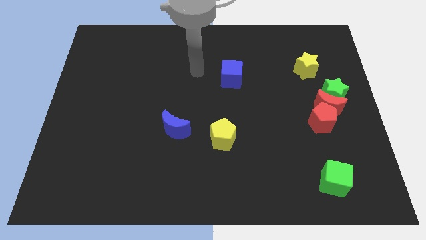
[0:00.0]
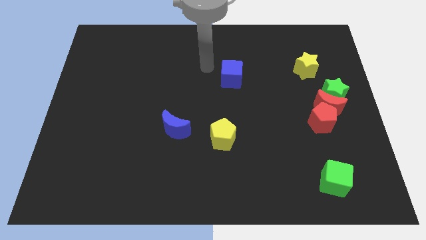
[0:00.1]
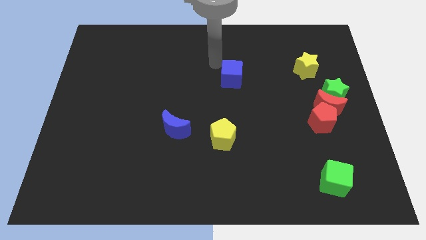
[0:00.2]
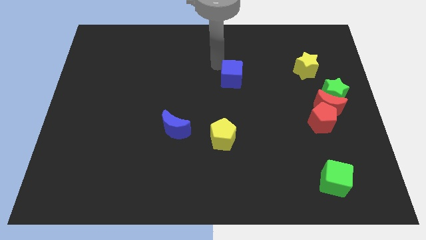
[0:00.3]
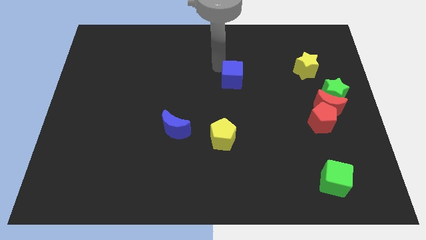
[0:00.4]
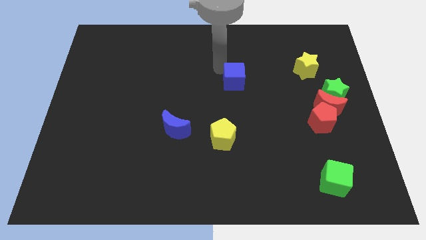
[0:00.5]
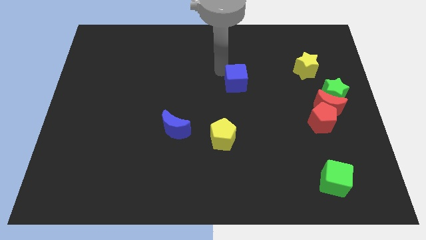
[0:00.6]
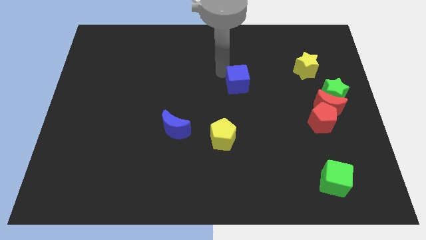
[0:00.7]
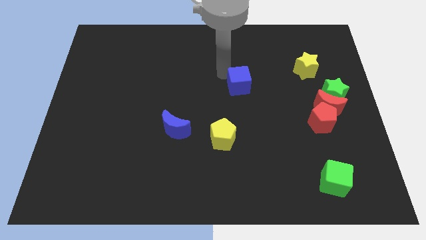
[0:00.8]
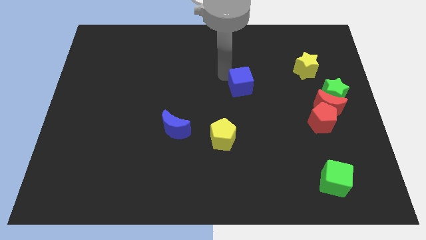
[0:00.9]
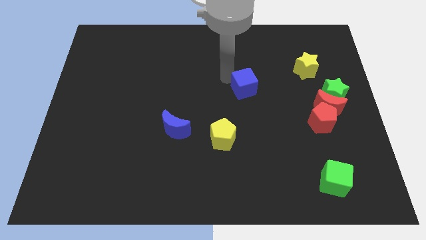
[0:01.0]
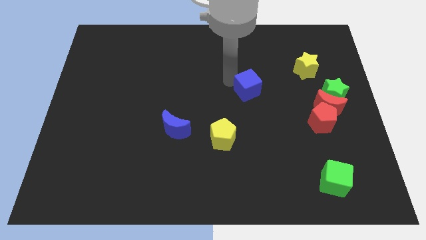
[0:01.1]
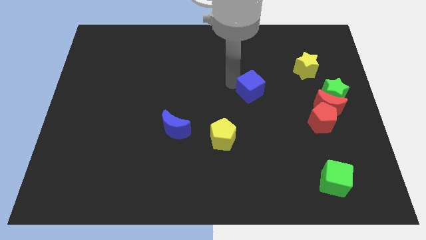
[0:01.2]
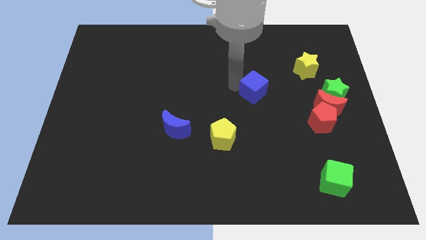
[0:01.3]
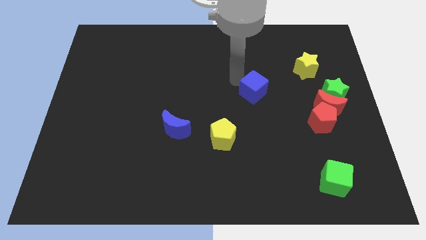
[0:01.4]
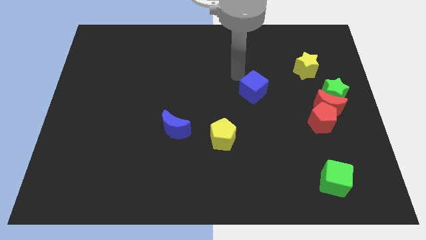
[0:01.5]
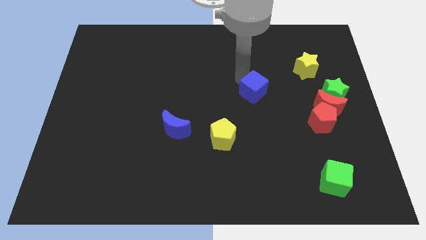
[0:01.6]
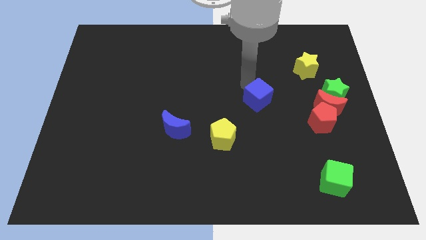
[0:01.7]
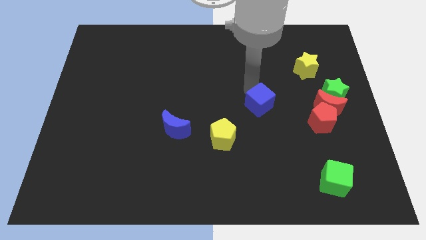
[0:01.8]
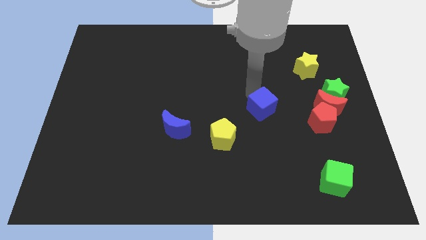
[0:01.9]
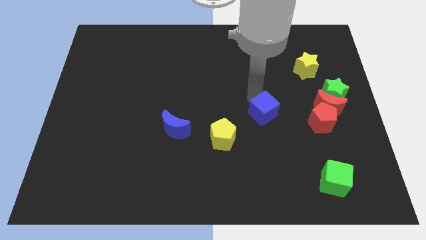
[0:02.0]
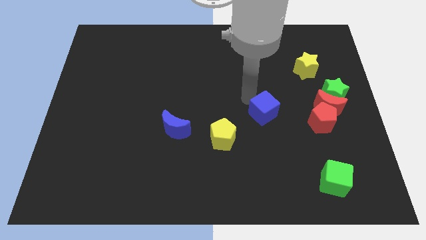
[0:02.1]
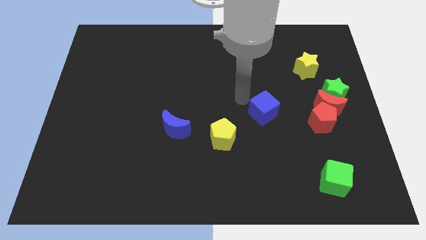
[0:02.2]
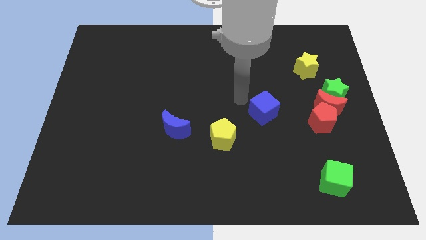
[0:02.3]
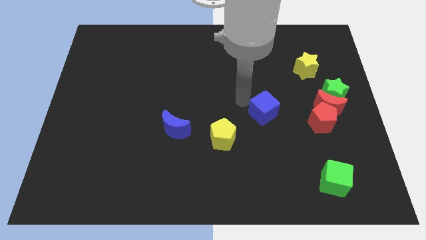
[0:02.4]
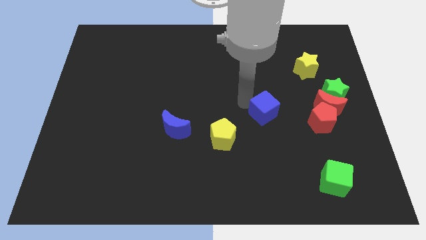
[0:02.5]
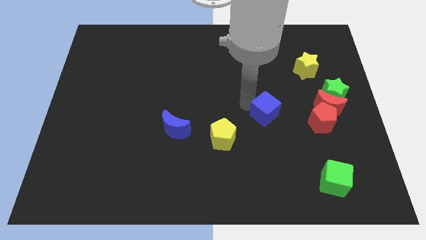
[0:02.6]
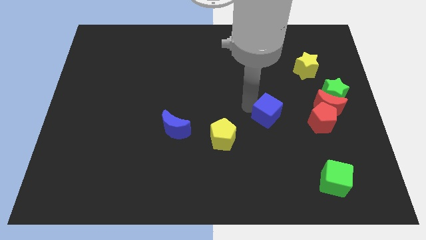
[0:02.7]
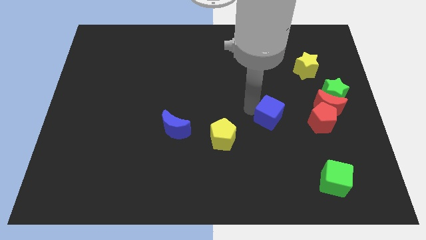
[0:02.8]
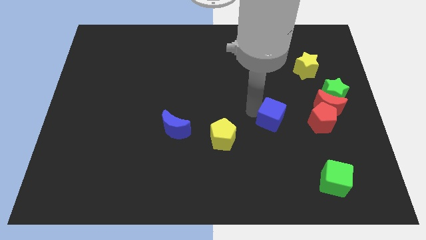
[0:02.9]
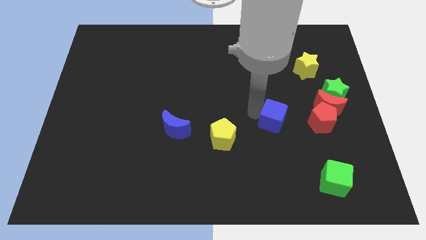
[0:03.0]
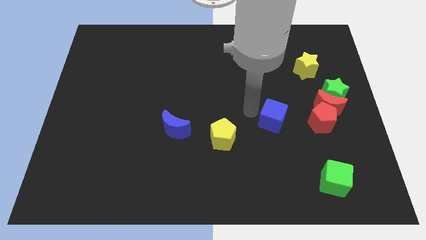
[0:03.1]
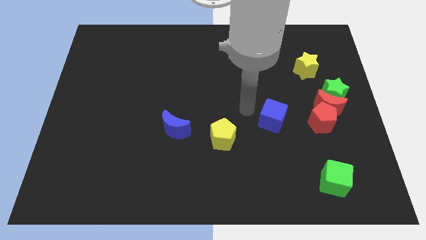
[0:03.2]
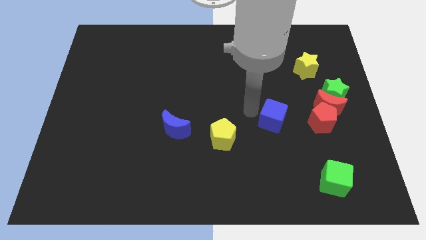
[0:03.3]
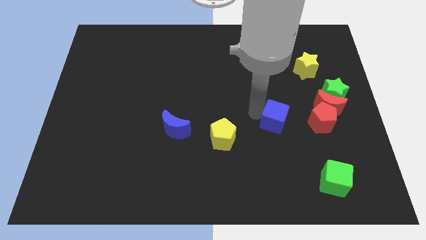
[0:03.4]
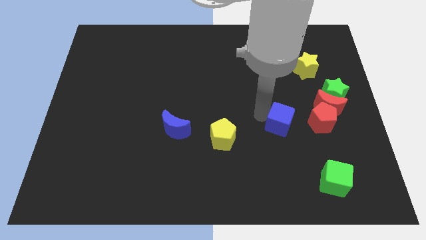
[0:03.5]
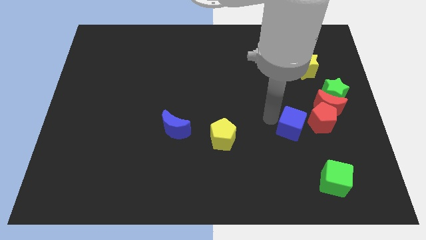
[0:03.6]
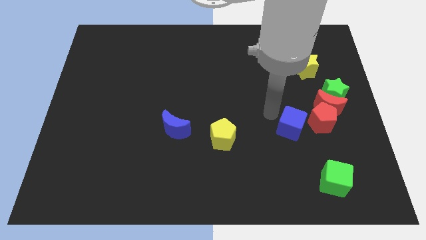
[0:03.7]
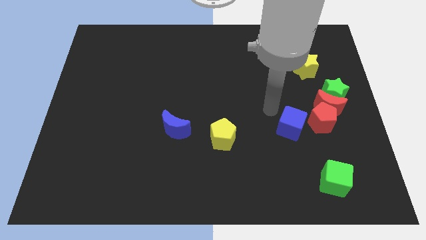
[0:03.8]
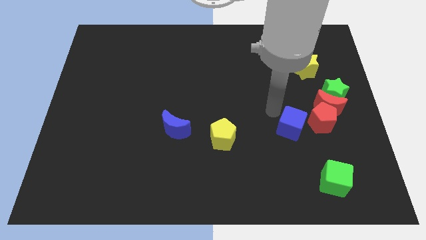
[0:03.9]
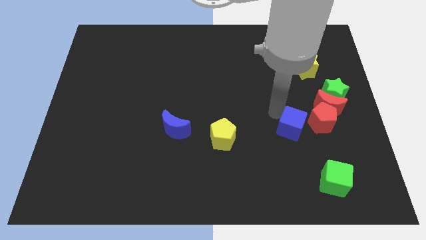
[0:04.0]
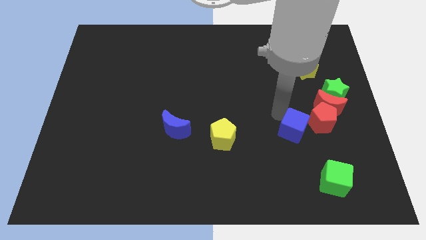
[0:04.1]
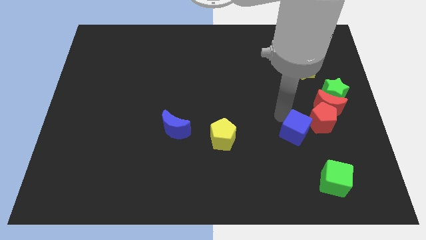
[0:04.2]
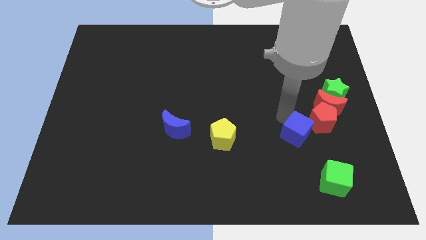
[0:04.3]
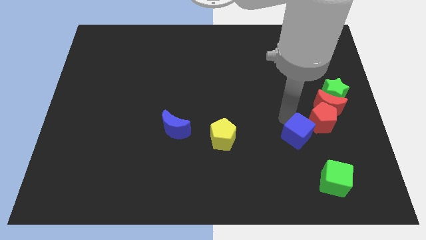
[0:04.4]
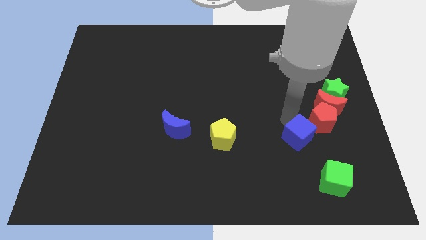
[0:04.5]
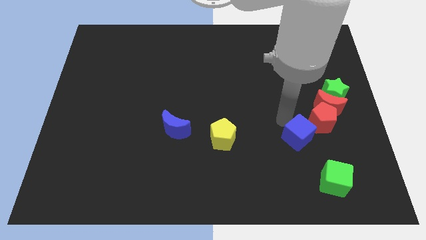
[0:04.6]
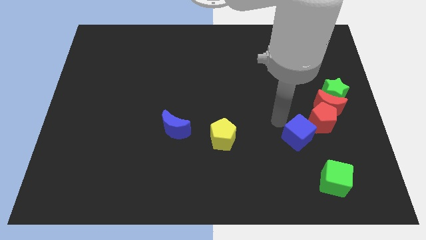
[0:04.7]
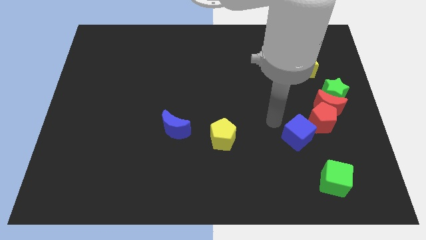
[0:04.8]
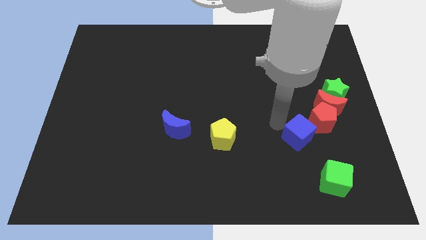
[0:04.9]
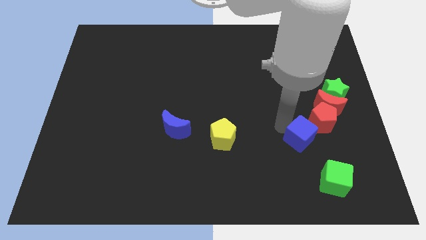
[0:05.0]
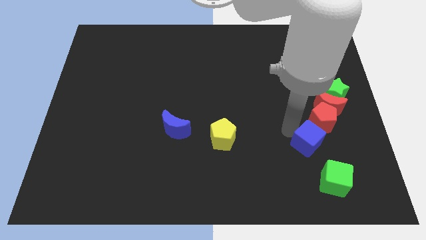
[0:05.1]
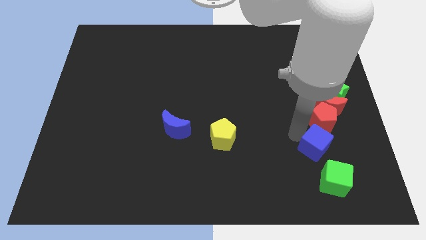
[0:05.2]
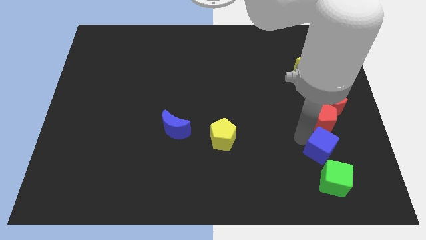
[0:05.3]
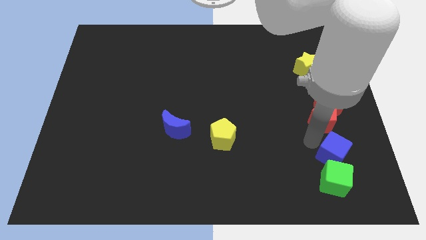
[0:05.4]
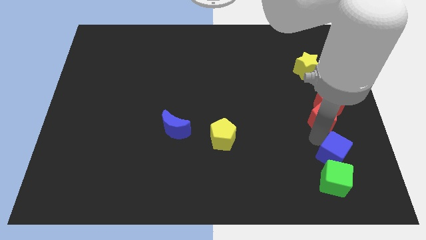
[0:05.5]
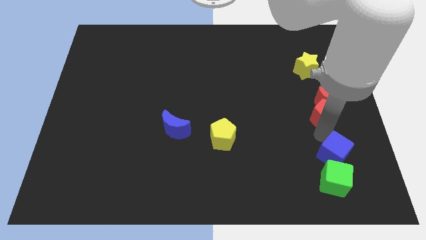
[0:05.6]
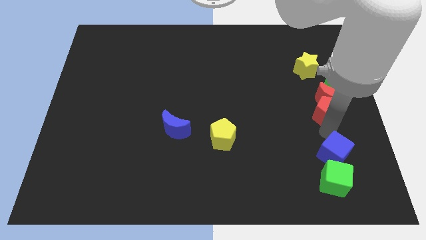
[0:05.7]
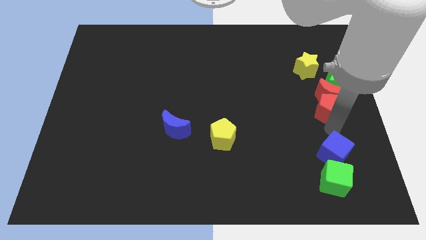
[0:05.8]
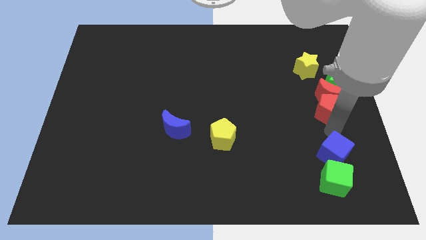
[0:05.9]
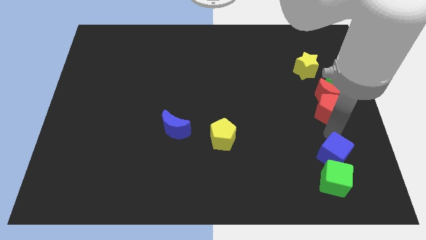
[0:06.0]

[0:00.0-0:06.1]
push the blue cube next to the green cube

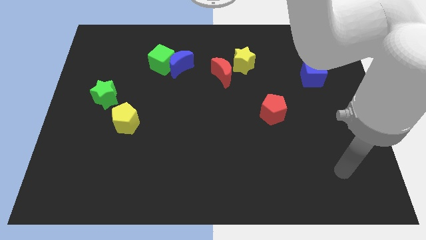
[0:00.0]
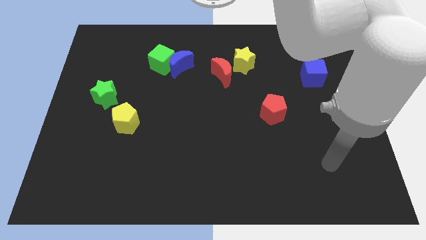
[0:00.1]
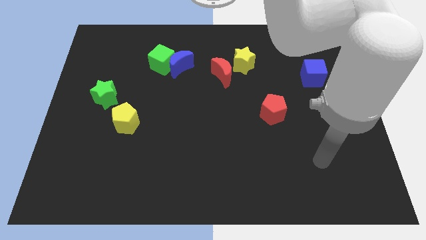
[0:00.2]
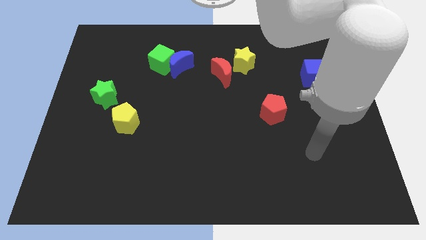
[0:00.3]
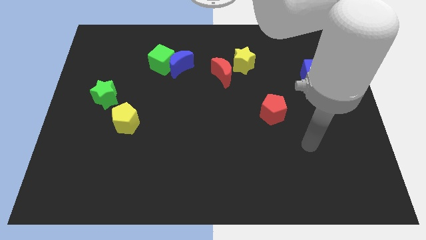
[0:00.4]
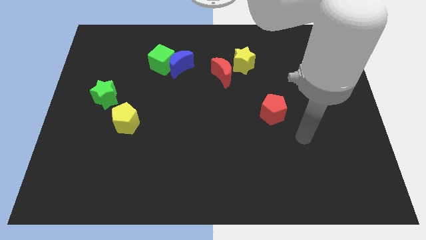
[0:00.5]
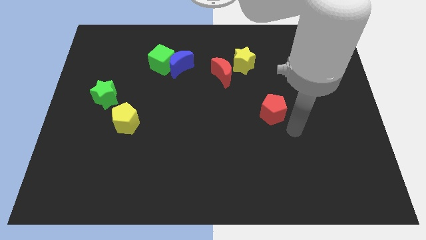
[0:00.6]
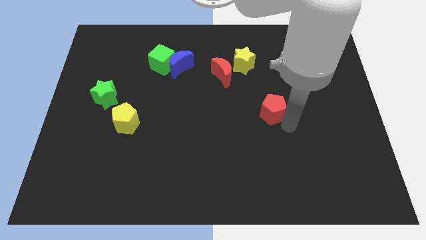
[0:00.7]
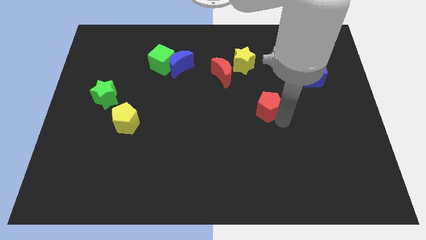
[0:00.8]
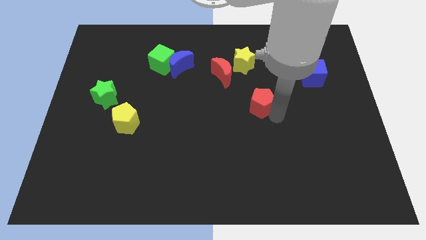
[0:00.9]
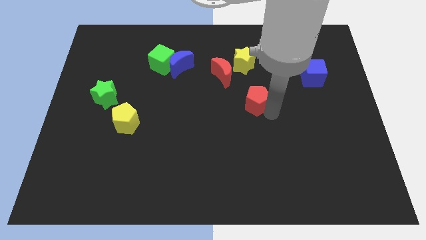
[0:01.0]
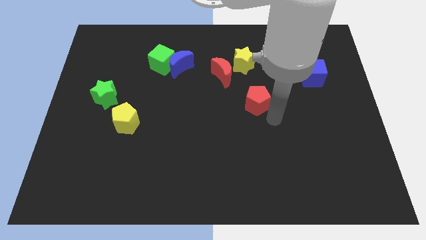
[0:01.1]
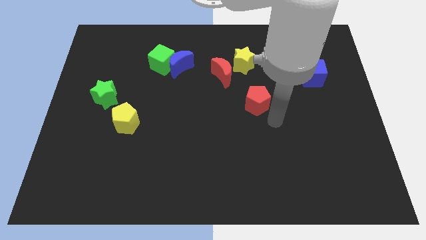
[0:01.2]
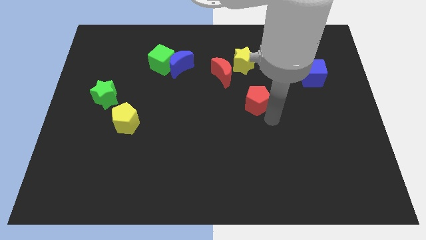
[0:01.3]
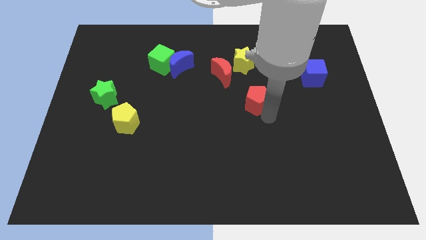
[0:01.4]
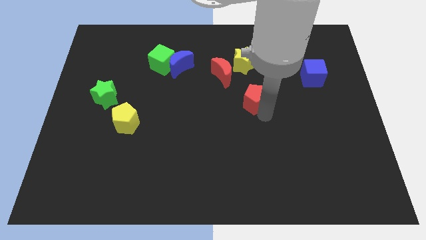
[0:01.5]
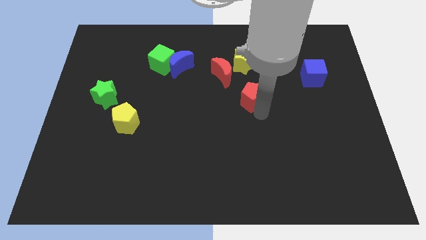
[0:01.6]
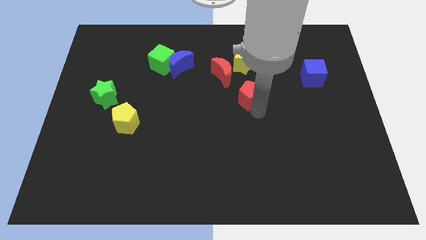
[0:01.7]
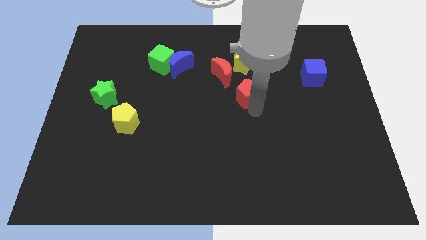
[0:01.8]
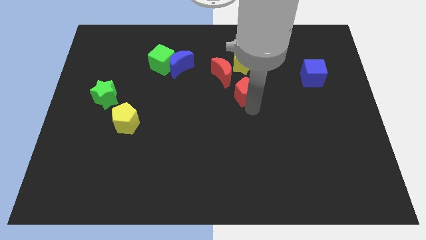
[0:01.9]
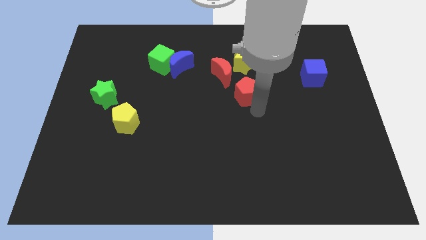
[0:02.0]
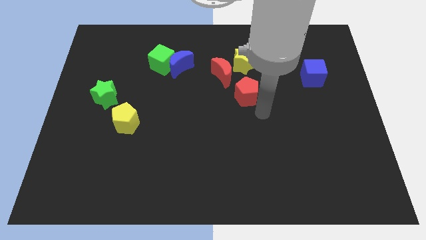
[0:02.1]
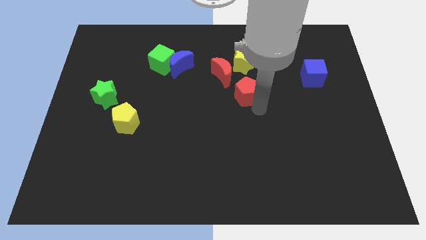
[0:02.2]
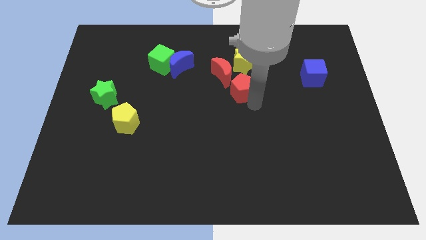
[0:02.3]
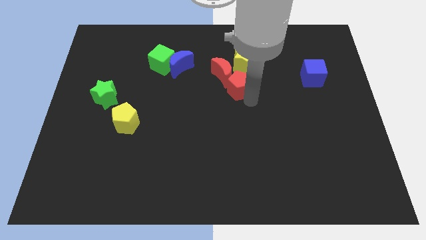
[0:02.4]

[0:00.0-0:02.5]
put the red pentagon next to the red moon
